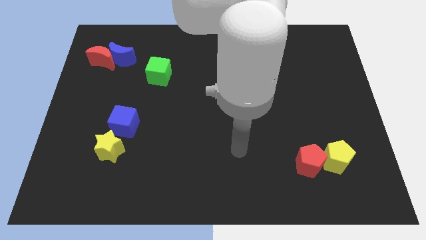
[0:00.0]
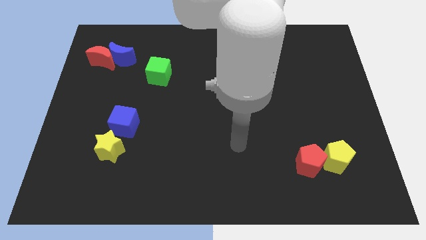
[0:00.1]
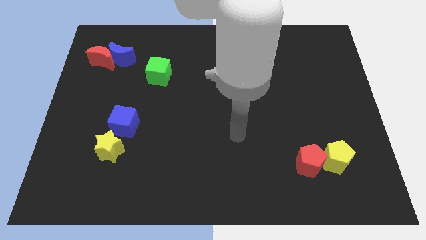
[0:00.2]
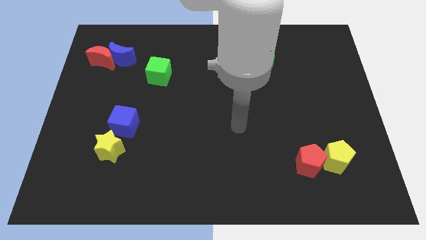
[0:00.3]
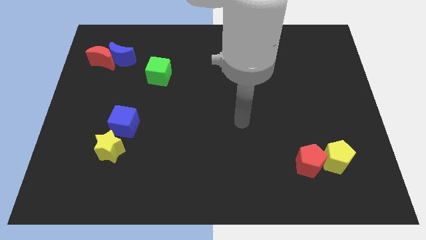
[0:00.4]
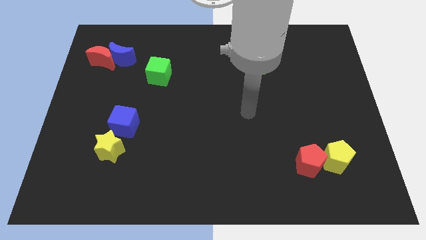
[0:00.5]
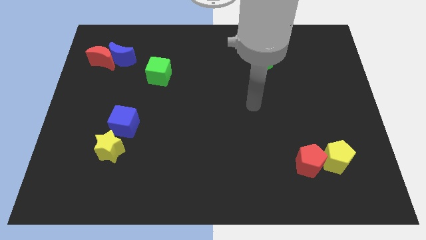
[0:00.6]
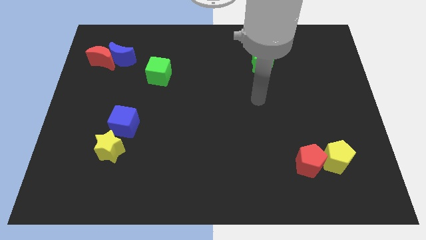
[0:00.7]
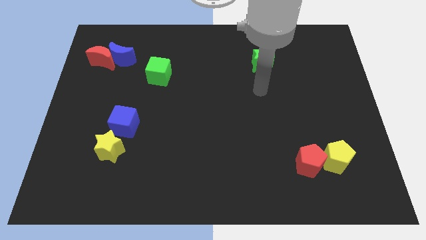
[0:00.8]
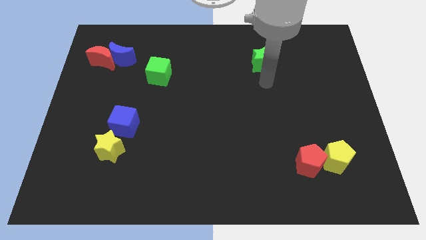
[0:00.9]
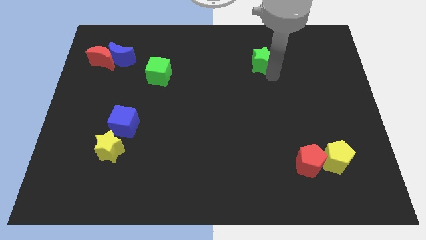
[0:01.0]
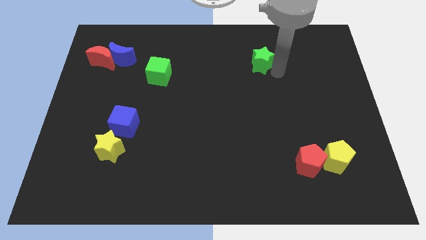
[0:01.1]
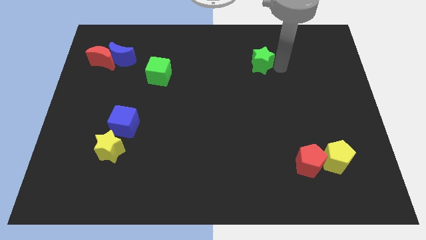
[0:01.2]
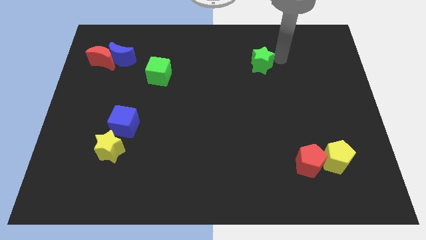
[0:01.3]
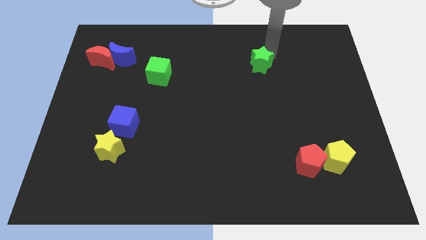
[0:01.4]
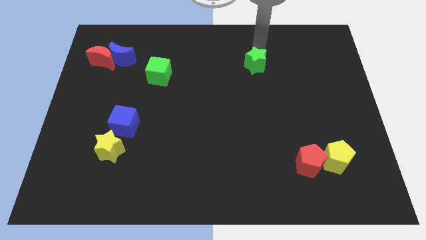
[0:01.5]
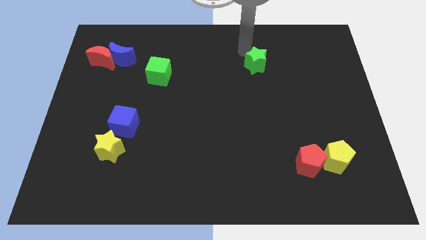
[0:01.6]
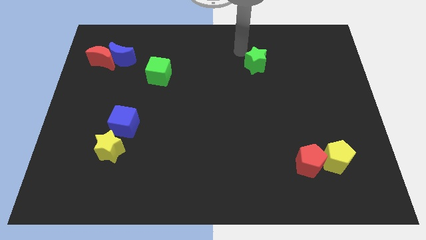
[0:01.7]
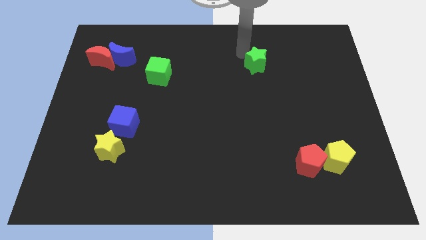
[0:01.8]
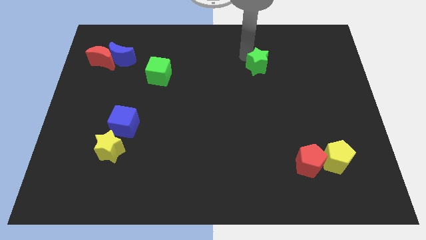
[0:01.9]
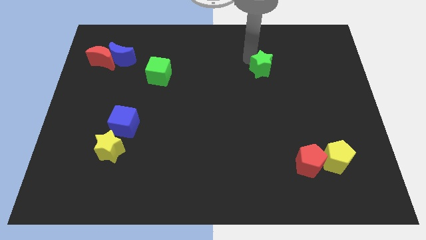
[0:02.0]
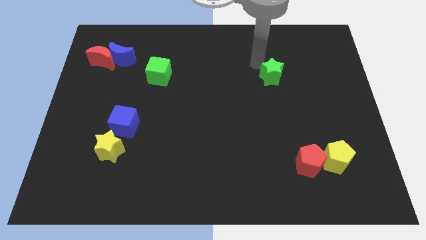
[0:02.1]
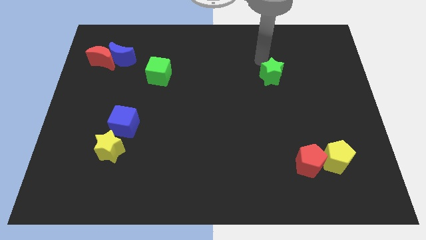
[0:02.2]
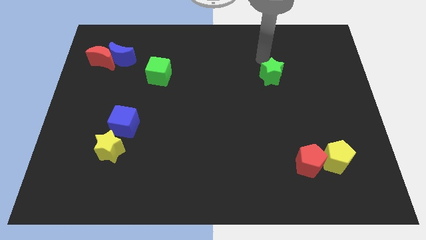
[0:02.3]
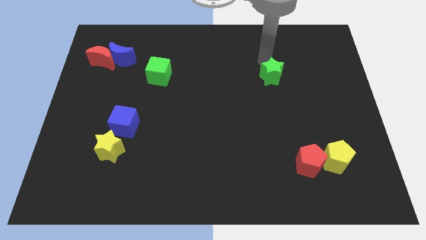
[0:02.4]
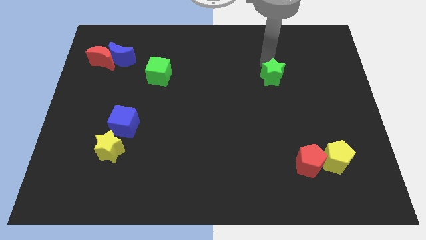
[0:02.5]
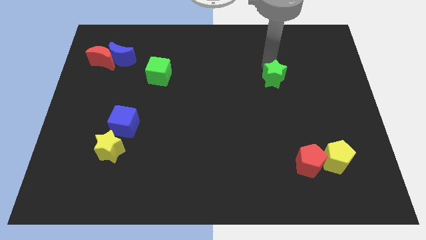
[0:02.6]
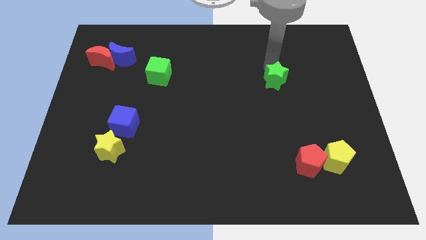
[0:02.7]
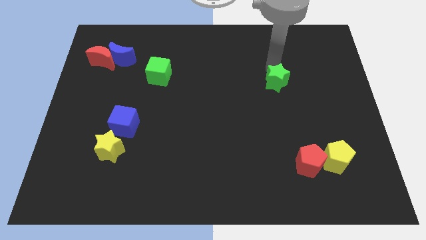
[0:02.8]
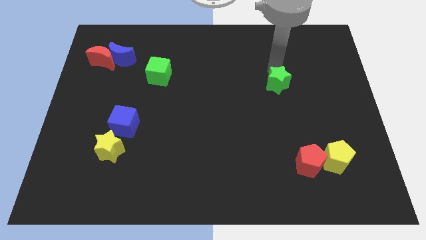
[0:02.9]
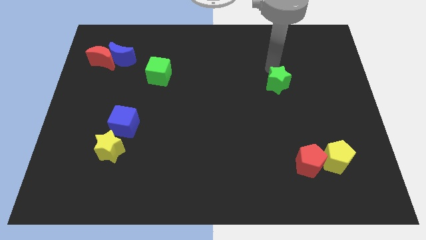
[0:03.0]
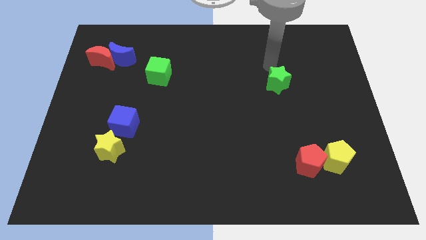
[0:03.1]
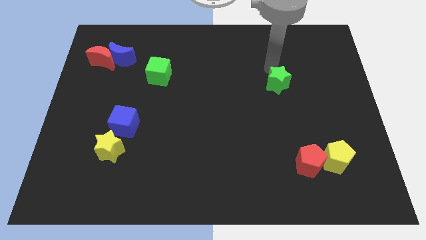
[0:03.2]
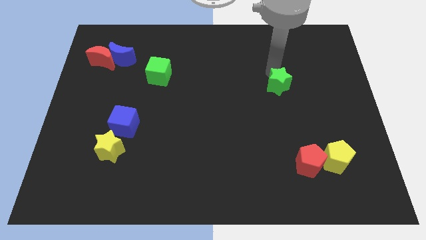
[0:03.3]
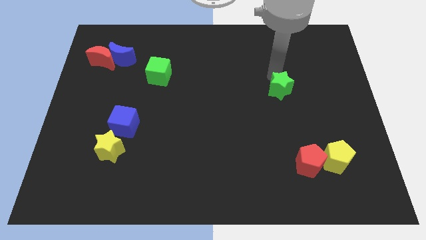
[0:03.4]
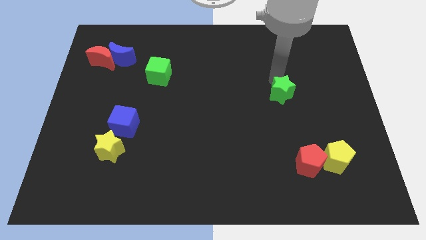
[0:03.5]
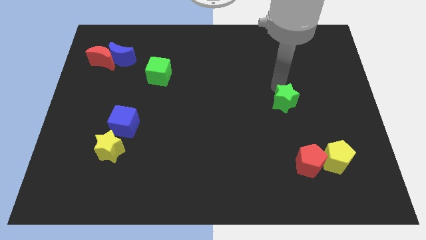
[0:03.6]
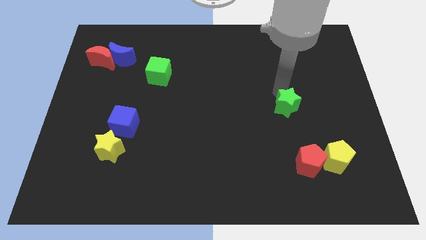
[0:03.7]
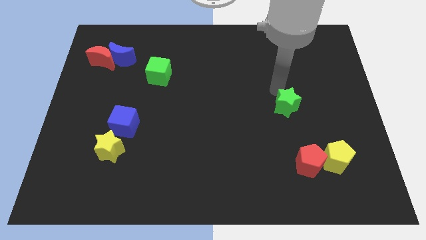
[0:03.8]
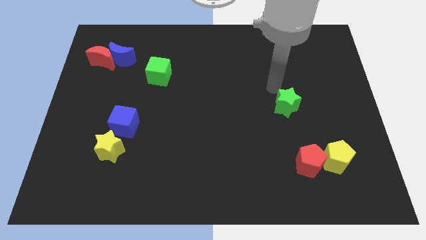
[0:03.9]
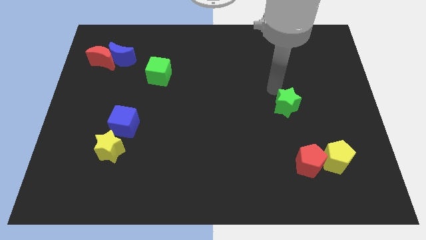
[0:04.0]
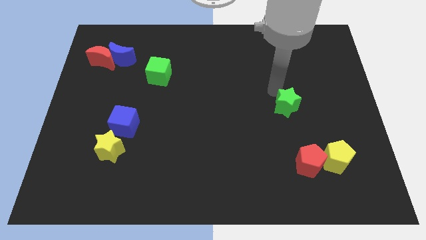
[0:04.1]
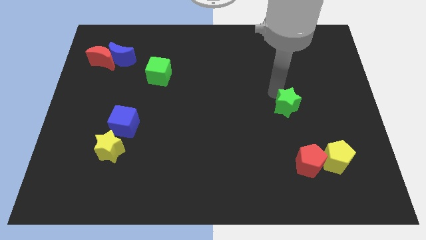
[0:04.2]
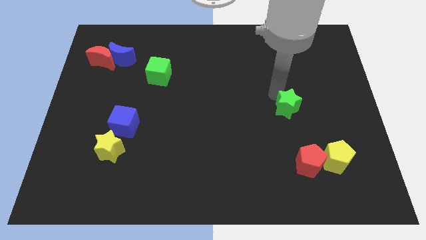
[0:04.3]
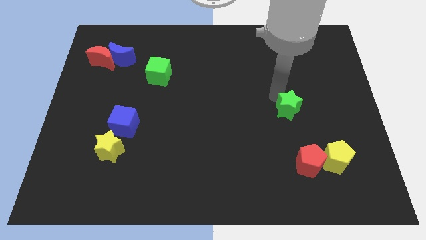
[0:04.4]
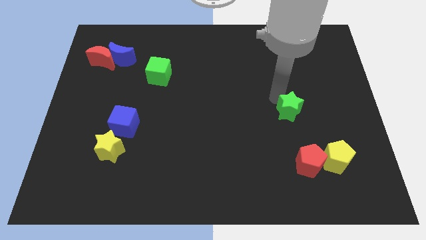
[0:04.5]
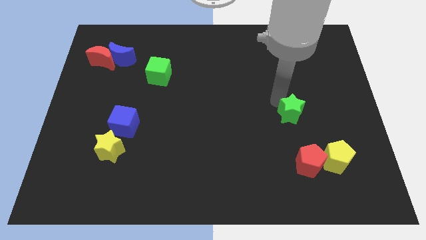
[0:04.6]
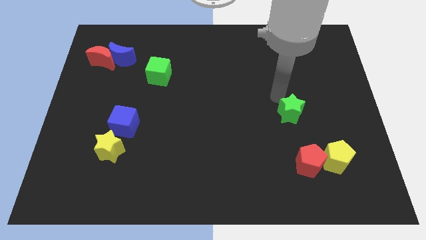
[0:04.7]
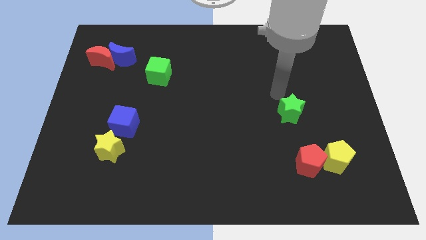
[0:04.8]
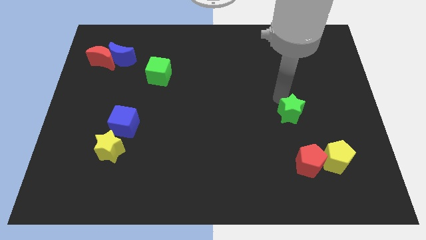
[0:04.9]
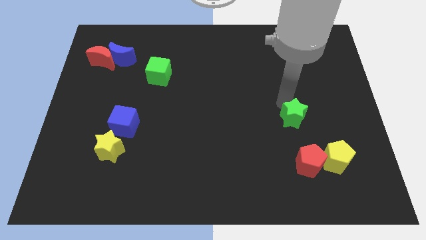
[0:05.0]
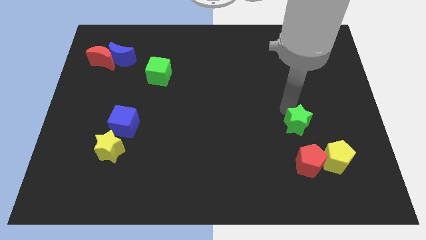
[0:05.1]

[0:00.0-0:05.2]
move the green star diagonally up and to the left of the yellow pentagon

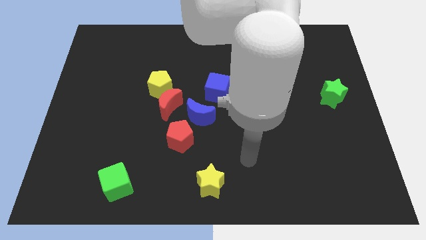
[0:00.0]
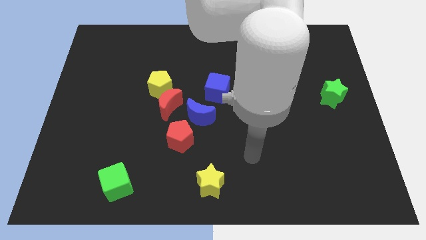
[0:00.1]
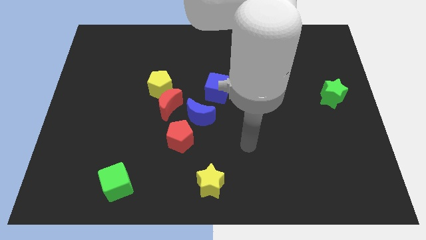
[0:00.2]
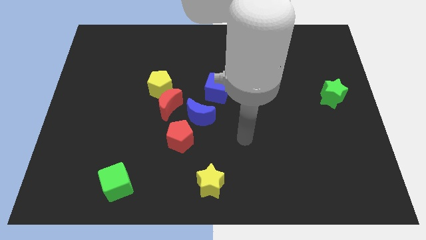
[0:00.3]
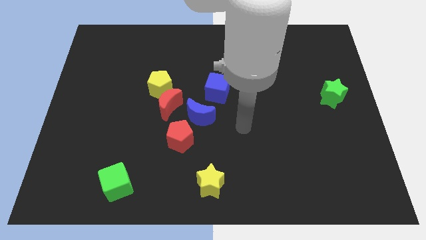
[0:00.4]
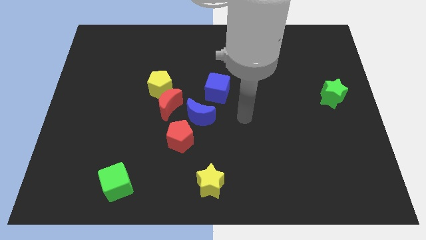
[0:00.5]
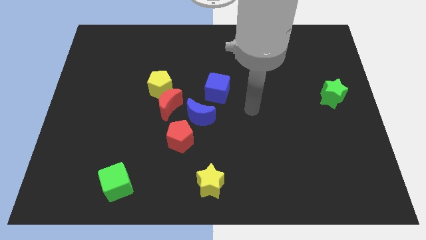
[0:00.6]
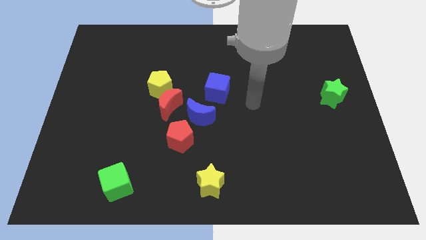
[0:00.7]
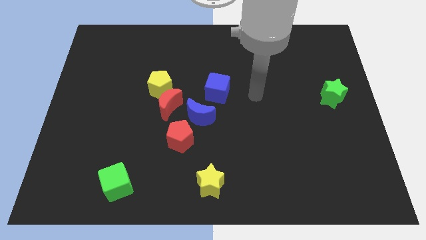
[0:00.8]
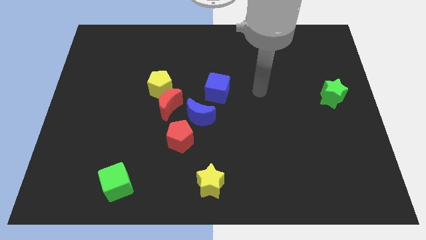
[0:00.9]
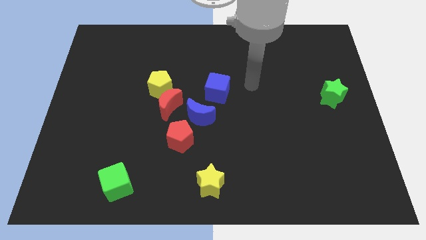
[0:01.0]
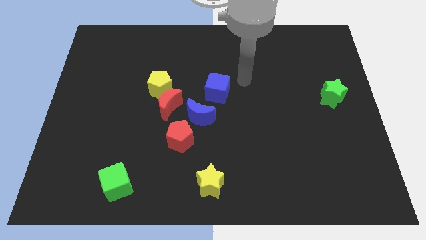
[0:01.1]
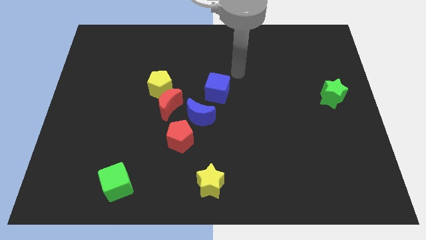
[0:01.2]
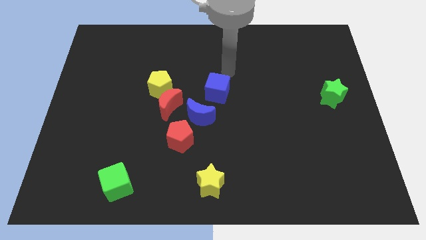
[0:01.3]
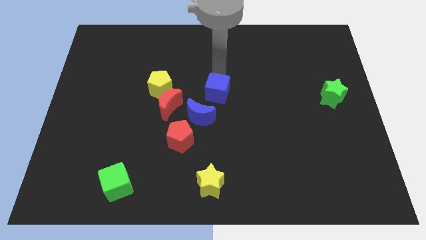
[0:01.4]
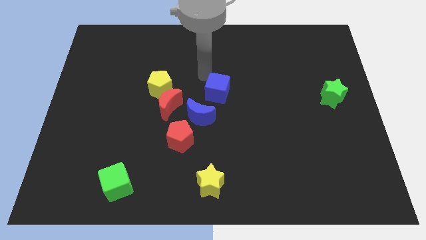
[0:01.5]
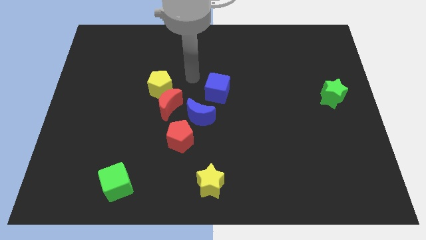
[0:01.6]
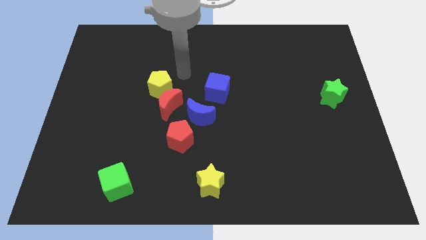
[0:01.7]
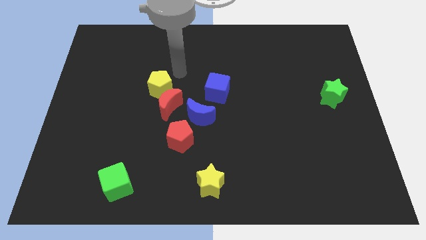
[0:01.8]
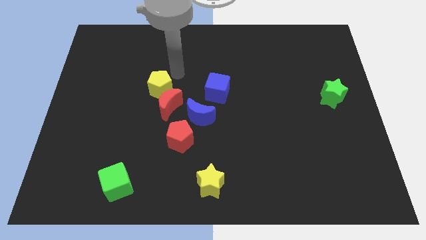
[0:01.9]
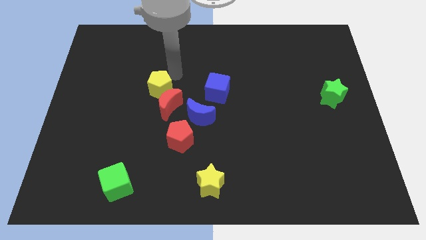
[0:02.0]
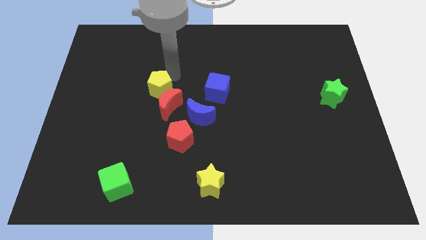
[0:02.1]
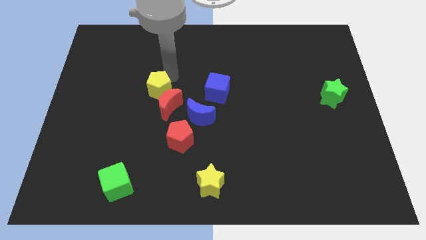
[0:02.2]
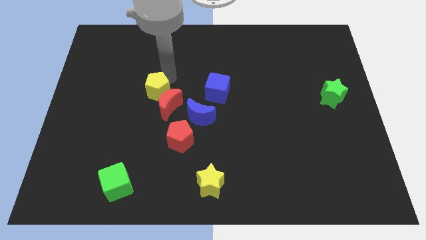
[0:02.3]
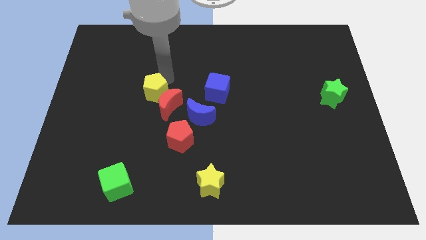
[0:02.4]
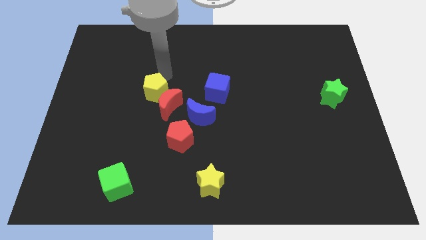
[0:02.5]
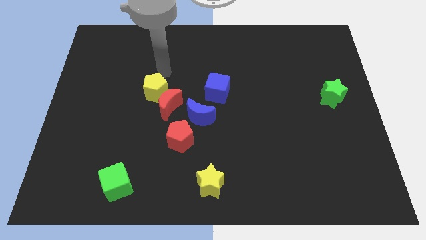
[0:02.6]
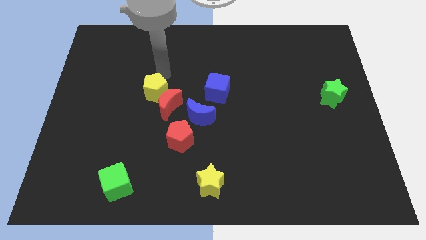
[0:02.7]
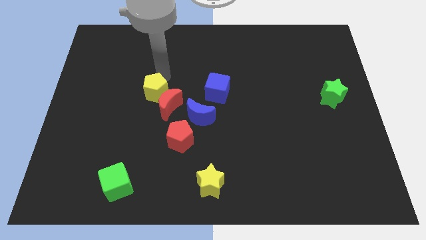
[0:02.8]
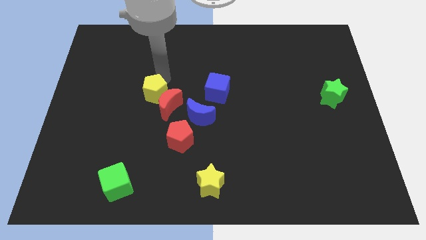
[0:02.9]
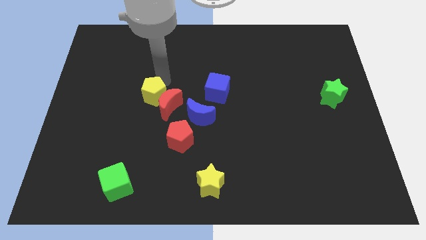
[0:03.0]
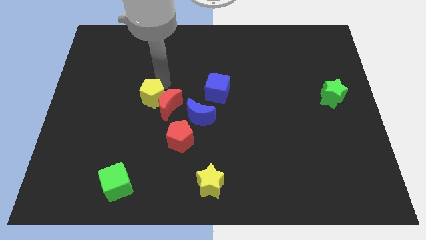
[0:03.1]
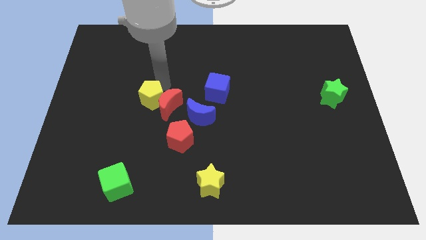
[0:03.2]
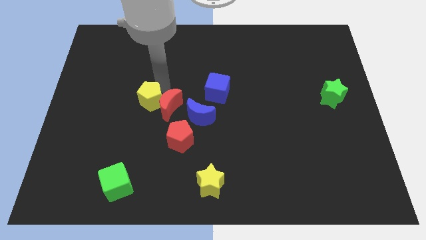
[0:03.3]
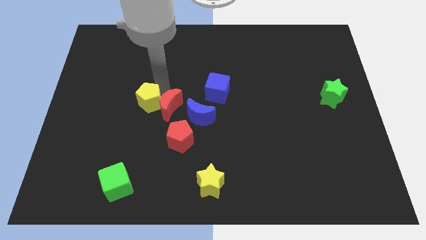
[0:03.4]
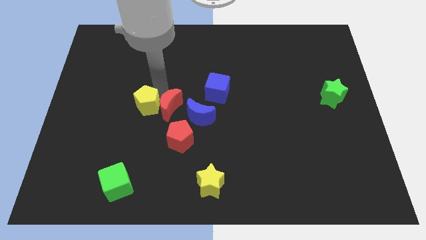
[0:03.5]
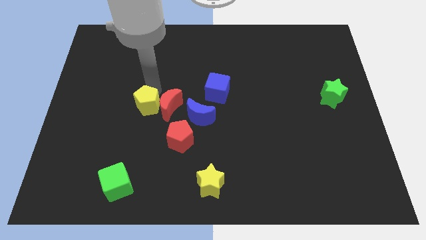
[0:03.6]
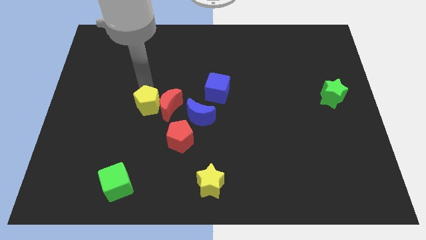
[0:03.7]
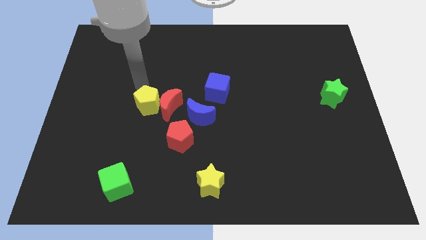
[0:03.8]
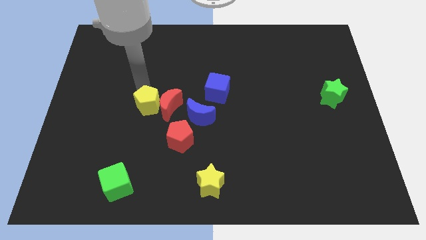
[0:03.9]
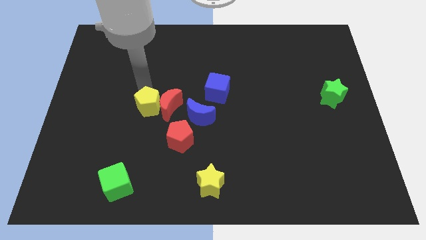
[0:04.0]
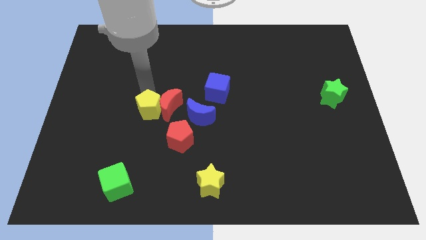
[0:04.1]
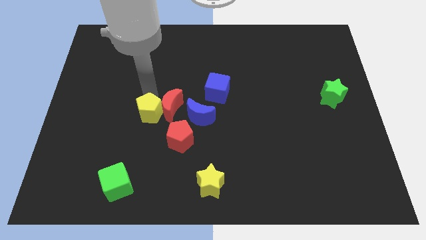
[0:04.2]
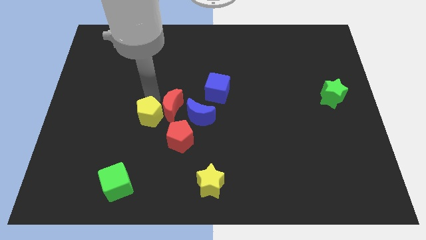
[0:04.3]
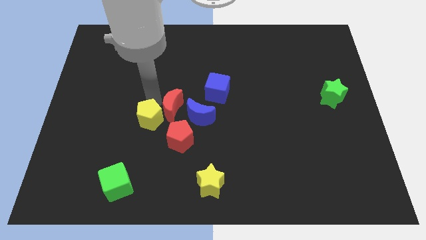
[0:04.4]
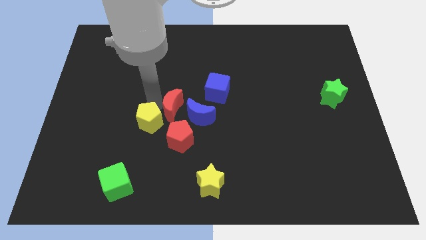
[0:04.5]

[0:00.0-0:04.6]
put the yellow pentagon to the bottom of the red moon
